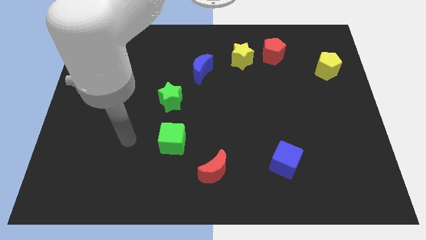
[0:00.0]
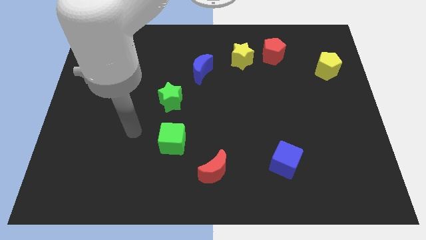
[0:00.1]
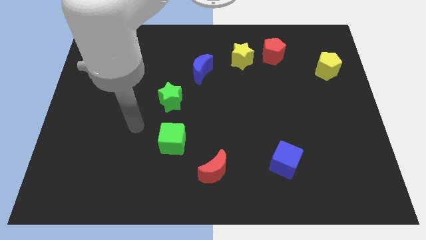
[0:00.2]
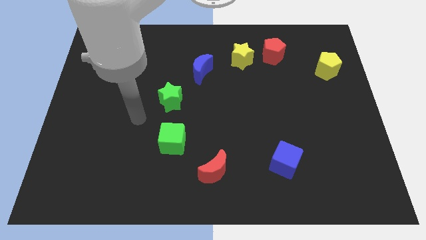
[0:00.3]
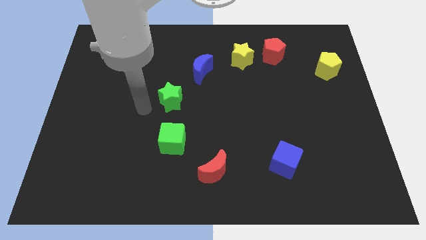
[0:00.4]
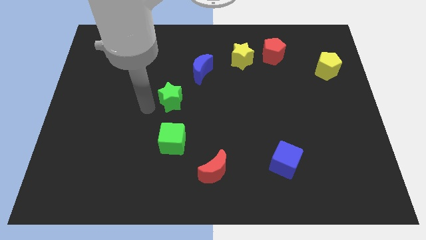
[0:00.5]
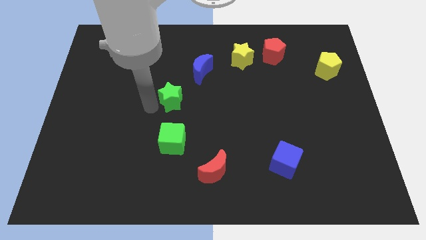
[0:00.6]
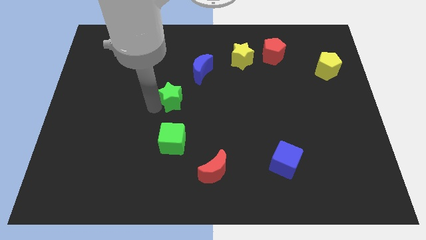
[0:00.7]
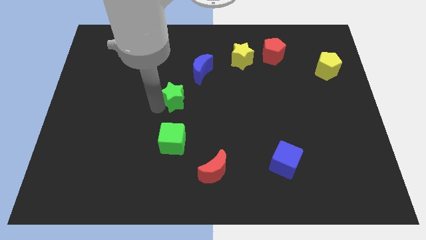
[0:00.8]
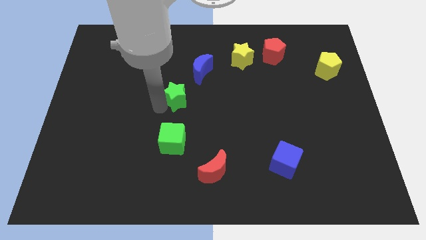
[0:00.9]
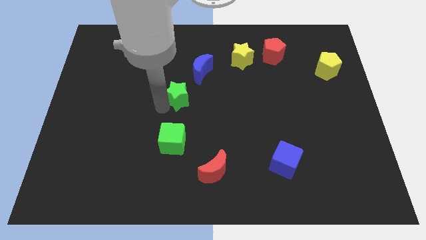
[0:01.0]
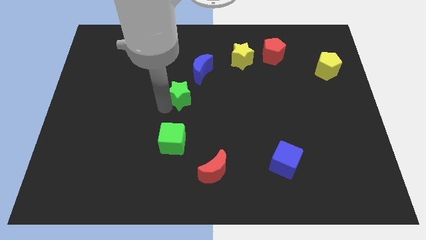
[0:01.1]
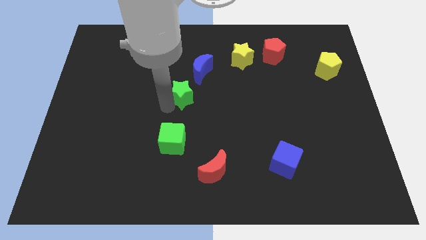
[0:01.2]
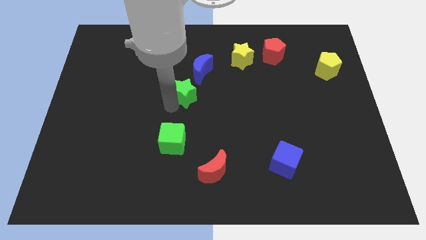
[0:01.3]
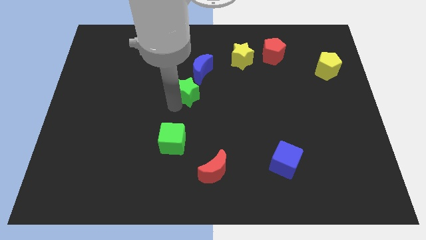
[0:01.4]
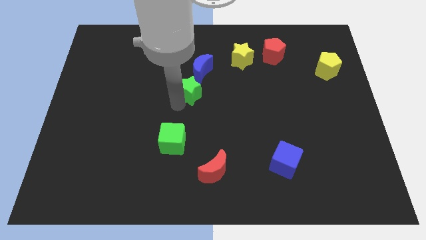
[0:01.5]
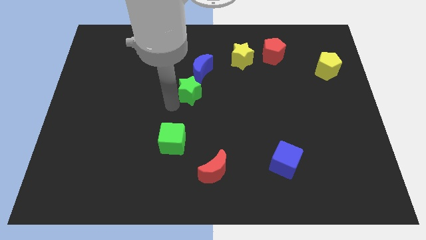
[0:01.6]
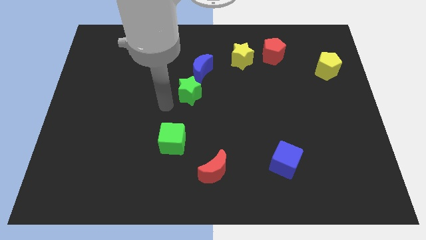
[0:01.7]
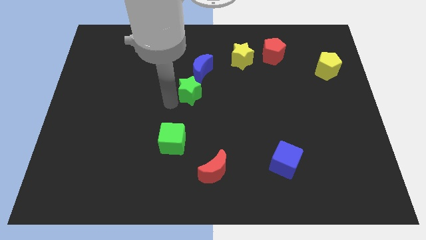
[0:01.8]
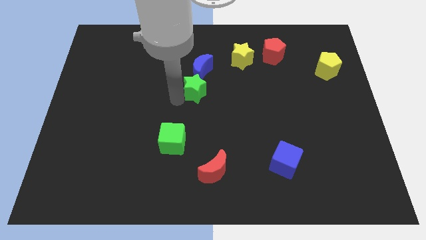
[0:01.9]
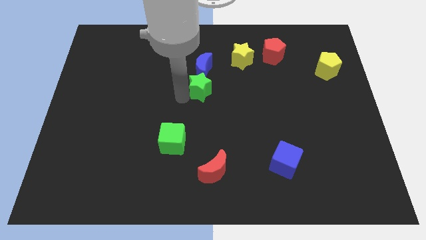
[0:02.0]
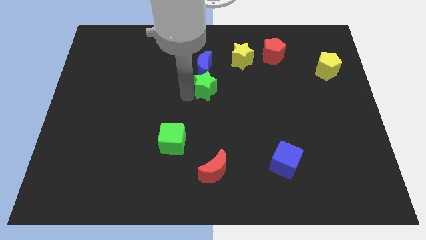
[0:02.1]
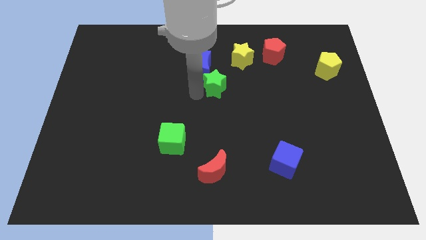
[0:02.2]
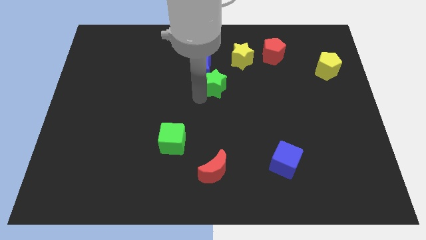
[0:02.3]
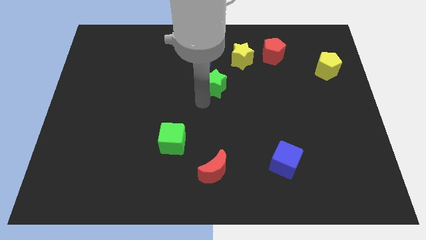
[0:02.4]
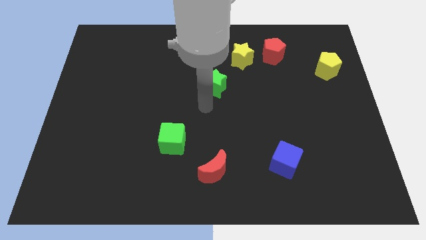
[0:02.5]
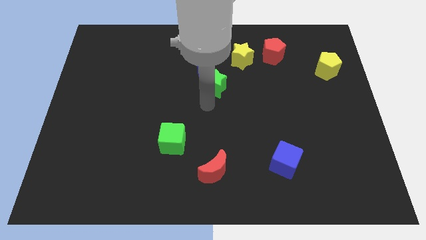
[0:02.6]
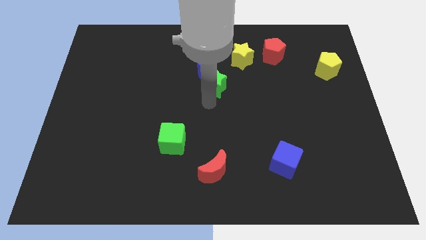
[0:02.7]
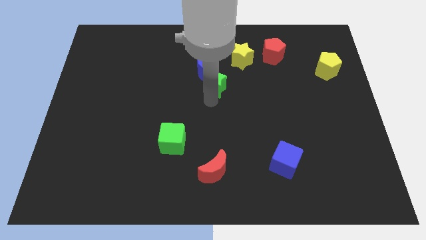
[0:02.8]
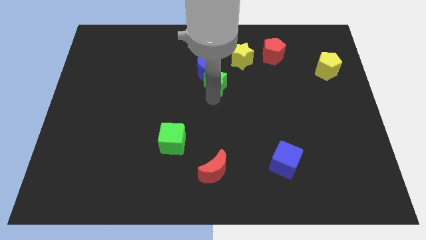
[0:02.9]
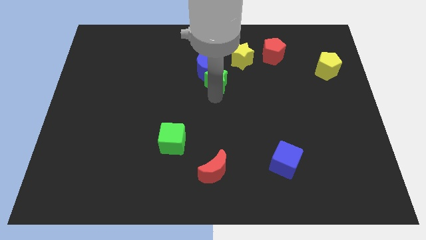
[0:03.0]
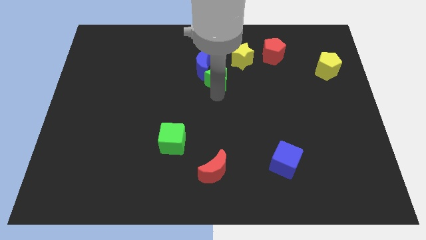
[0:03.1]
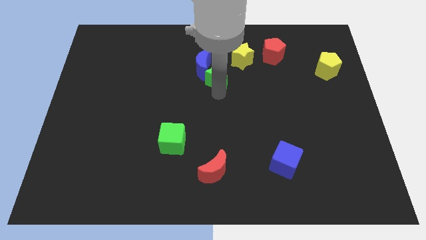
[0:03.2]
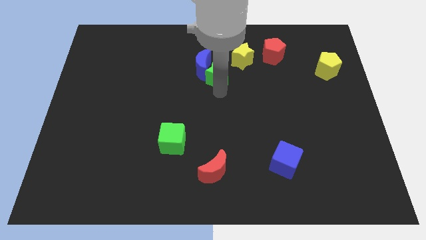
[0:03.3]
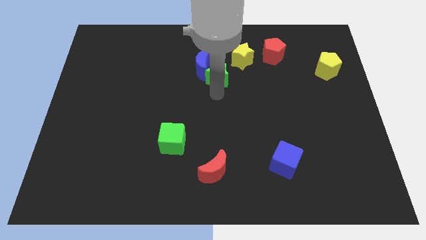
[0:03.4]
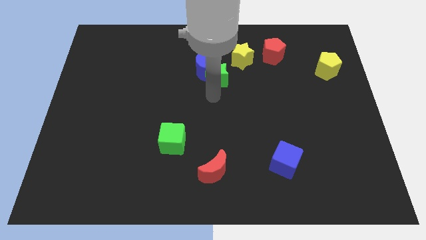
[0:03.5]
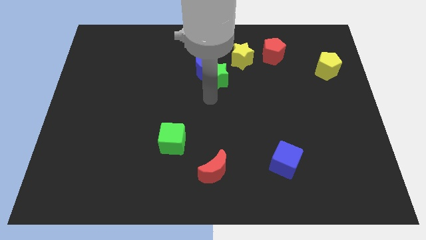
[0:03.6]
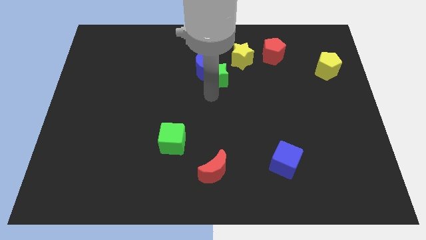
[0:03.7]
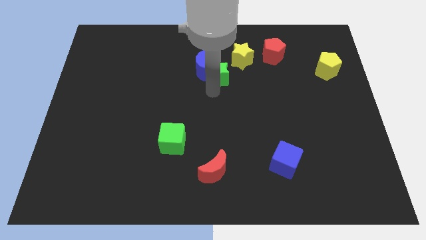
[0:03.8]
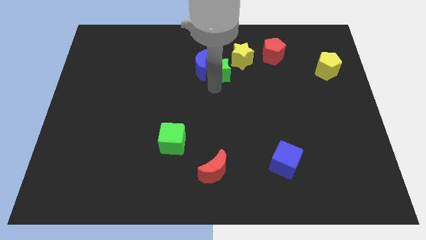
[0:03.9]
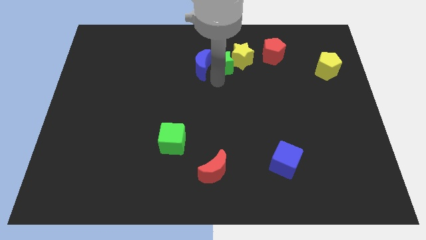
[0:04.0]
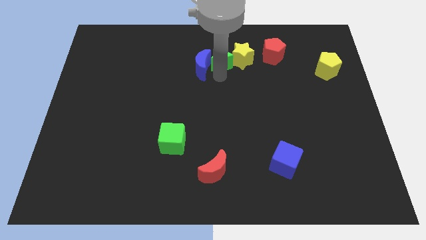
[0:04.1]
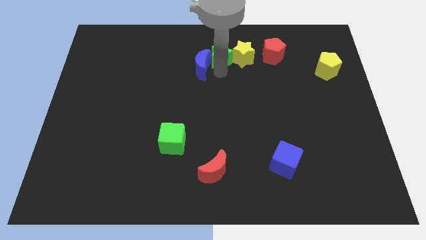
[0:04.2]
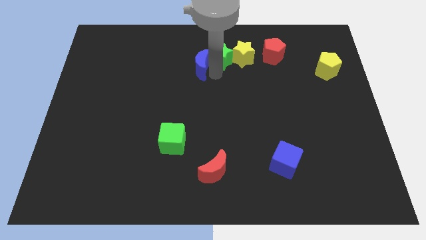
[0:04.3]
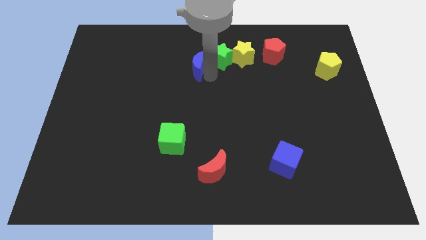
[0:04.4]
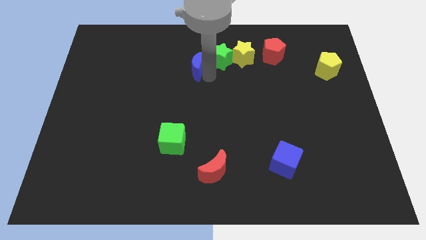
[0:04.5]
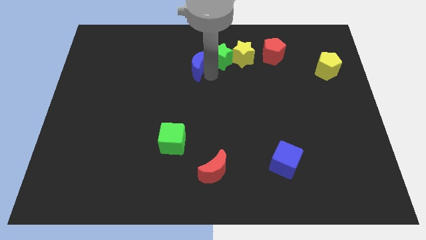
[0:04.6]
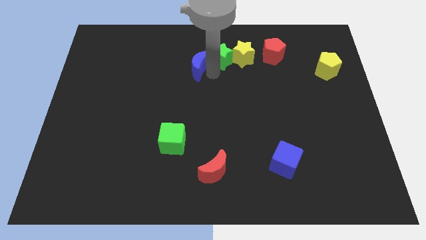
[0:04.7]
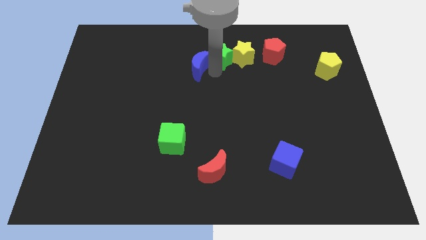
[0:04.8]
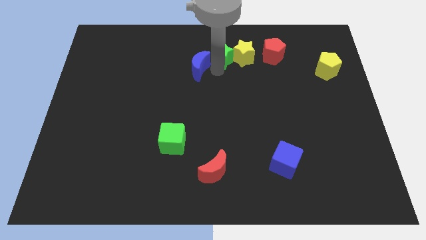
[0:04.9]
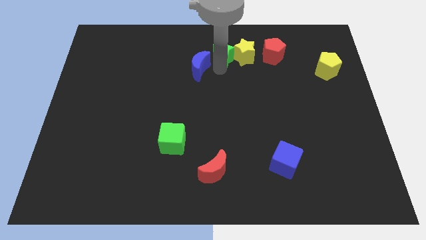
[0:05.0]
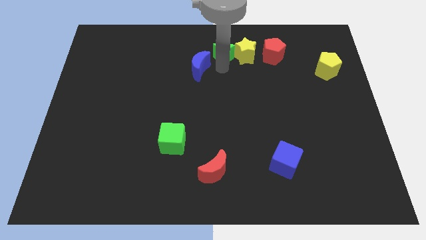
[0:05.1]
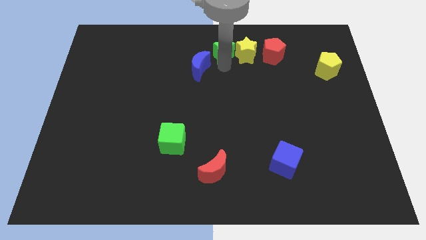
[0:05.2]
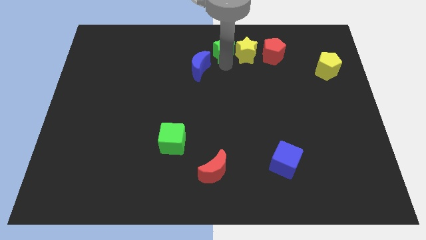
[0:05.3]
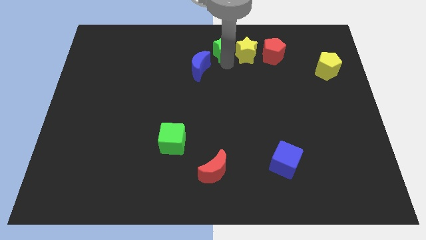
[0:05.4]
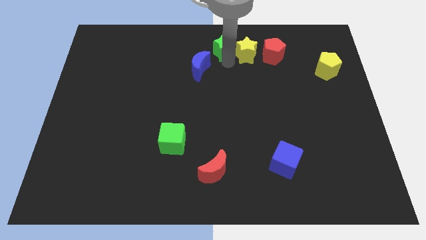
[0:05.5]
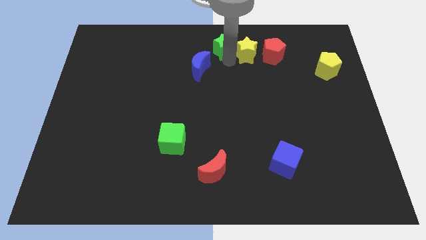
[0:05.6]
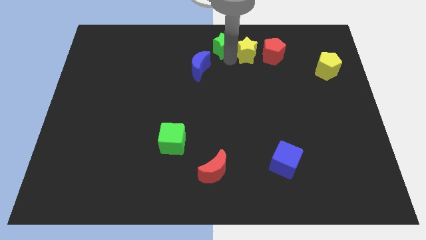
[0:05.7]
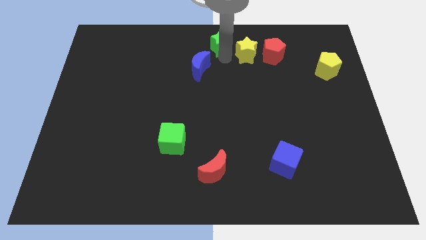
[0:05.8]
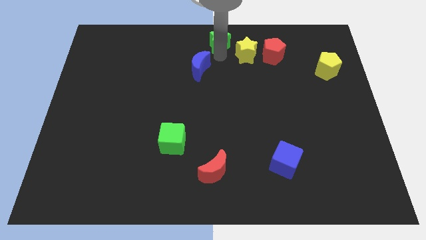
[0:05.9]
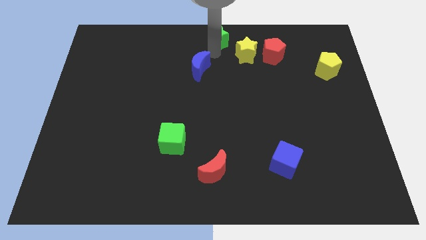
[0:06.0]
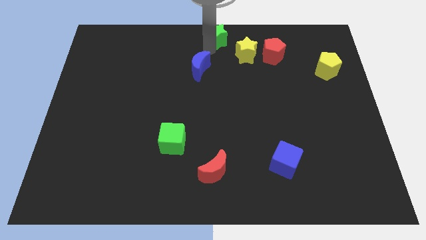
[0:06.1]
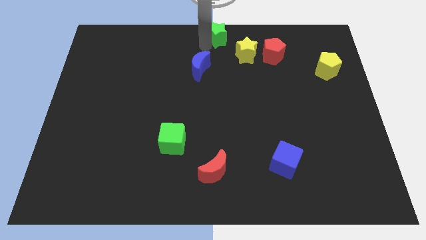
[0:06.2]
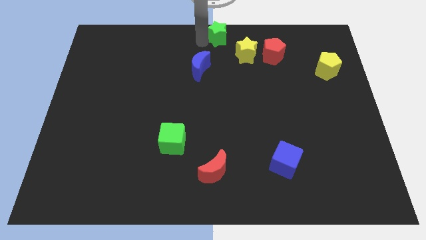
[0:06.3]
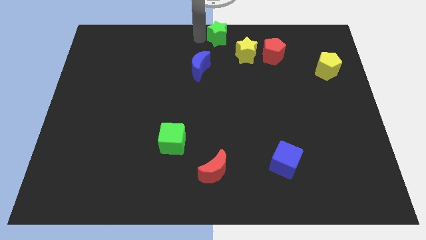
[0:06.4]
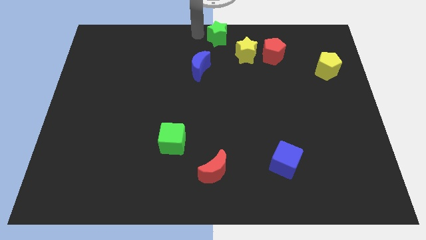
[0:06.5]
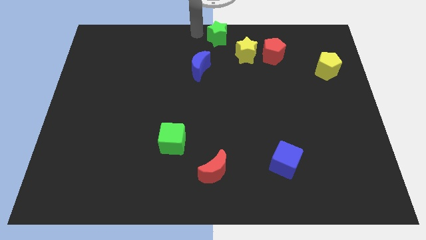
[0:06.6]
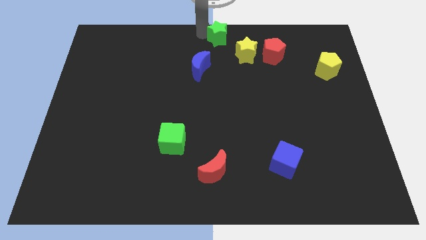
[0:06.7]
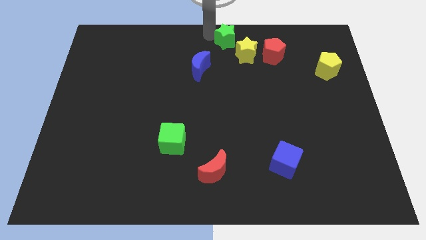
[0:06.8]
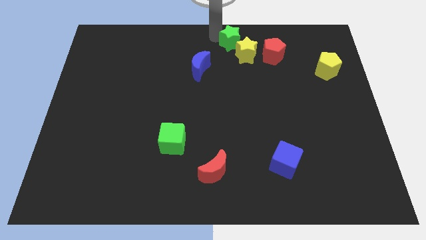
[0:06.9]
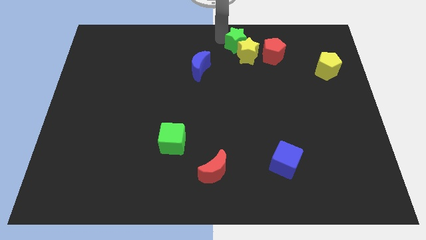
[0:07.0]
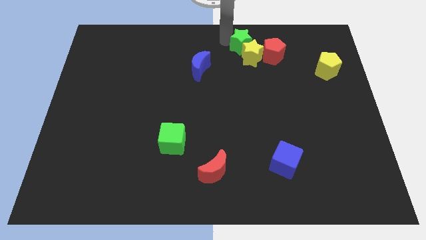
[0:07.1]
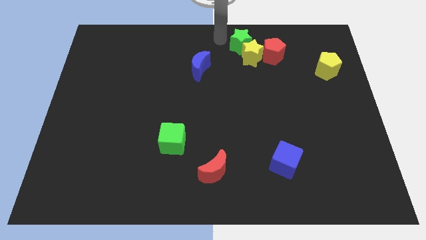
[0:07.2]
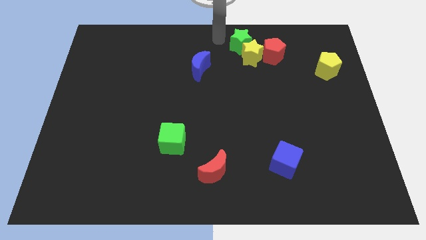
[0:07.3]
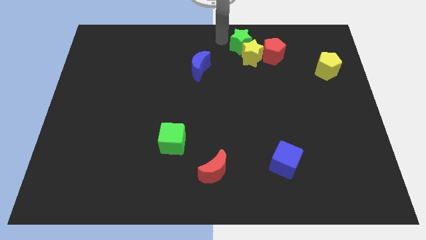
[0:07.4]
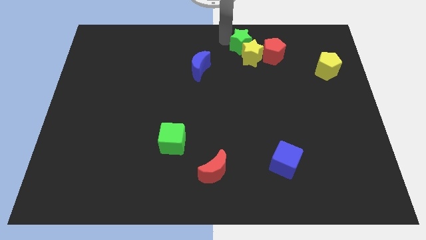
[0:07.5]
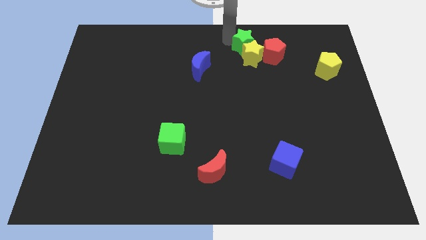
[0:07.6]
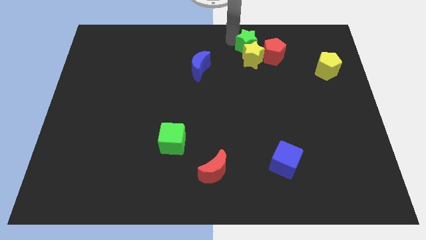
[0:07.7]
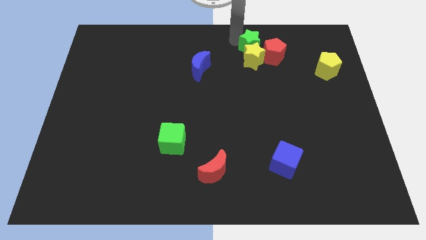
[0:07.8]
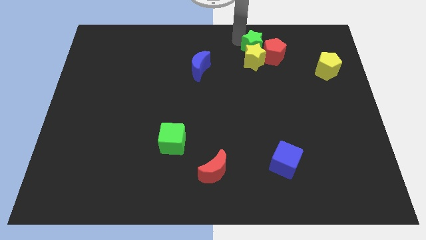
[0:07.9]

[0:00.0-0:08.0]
push the green star close to the red pentagon
